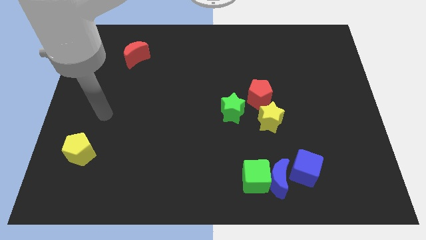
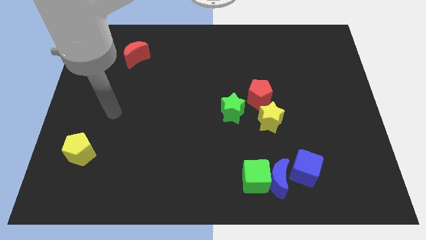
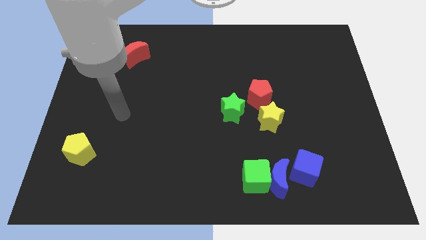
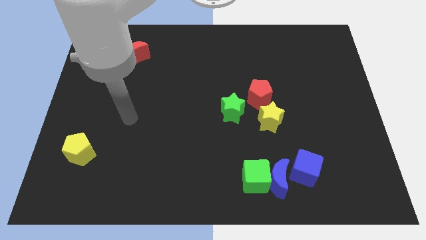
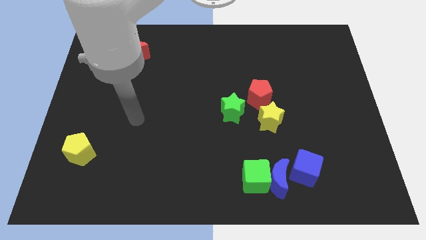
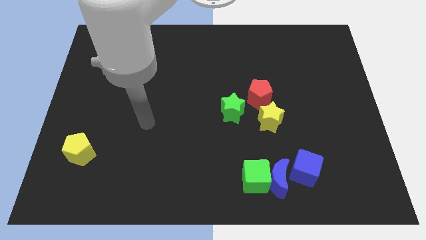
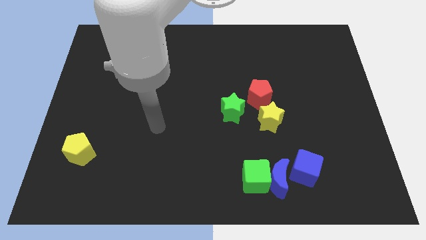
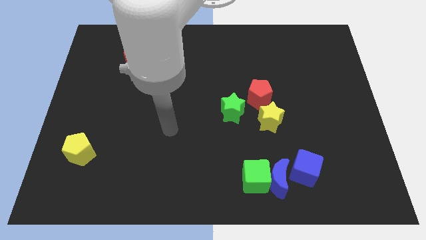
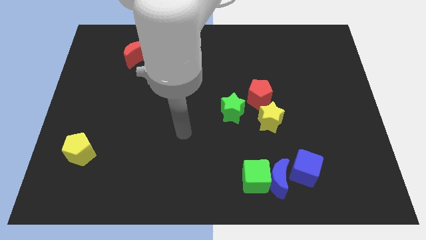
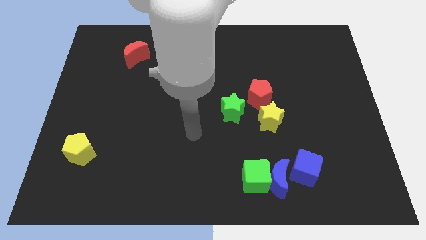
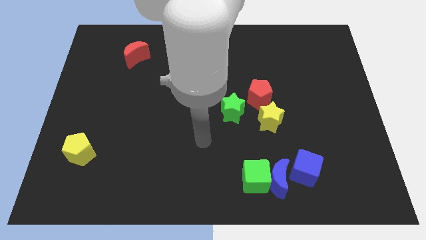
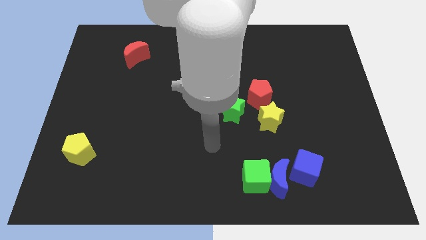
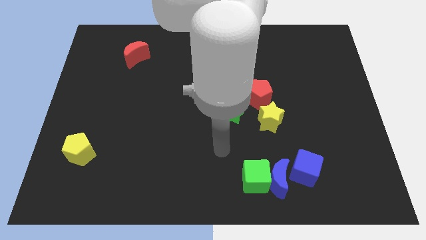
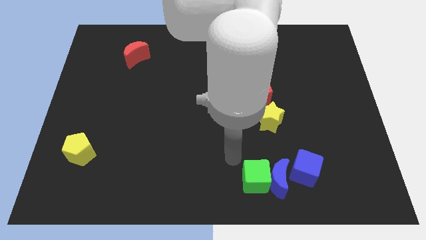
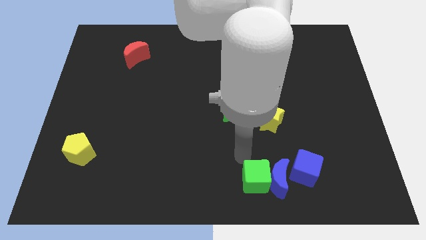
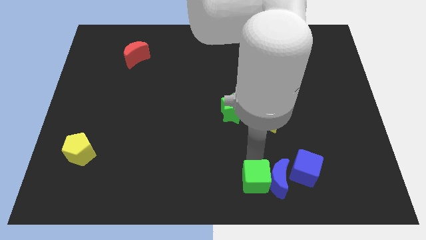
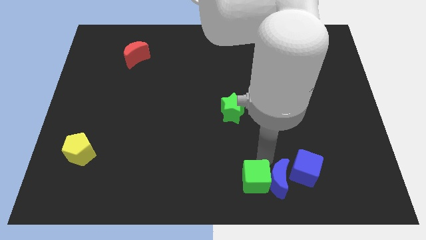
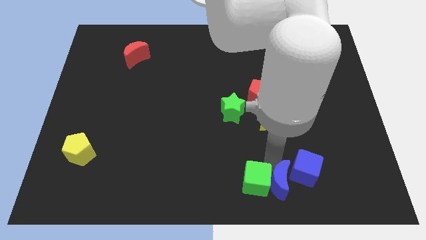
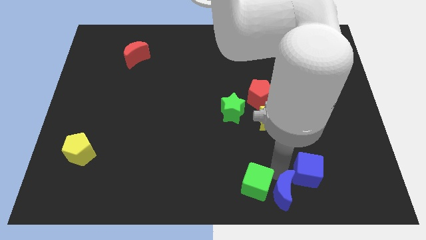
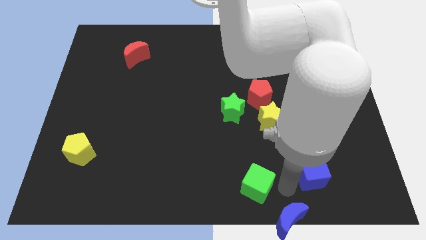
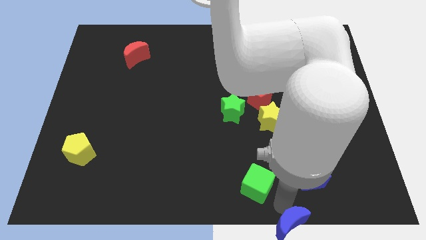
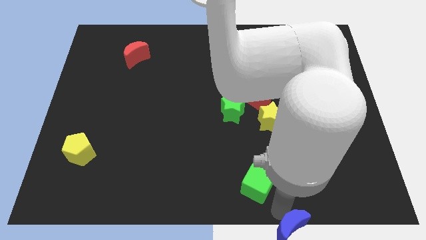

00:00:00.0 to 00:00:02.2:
separate the green cube from the blue moon

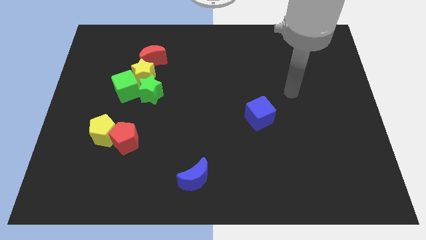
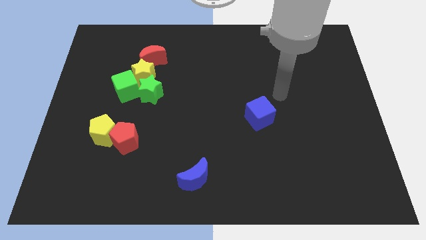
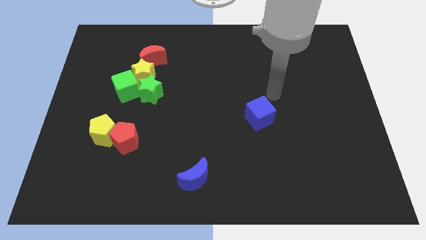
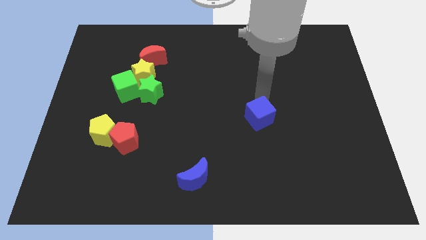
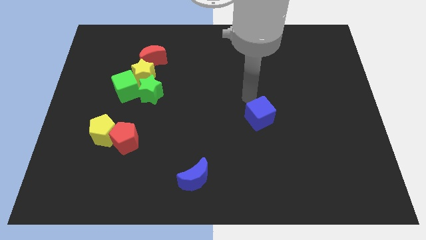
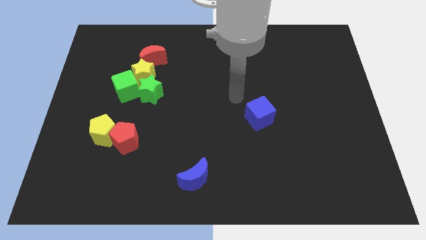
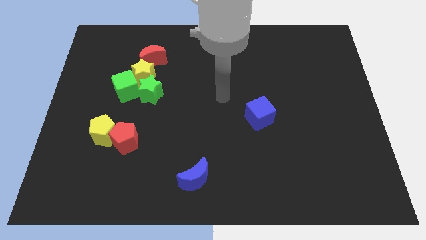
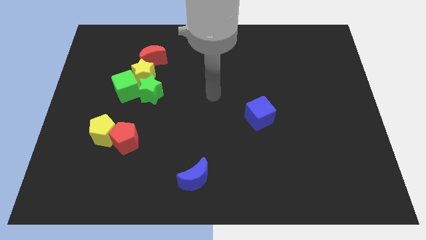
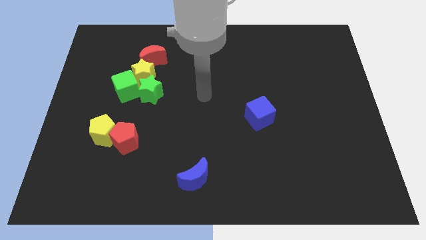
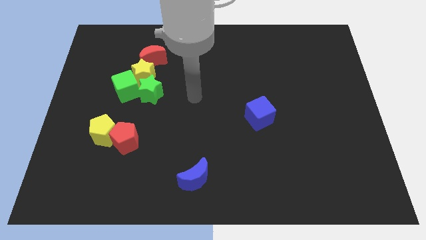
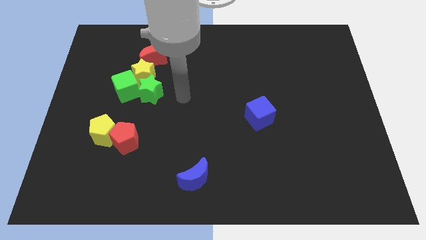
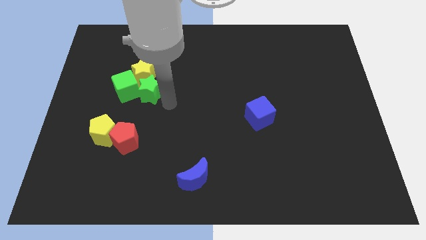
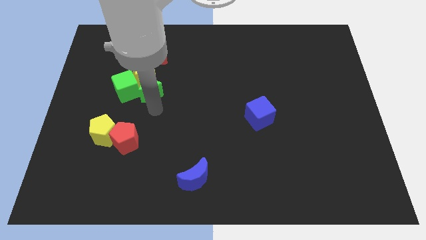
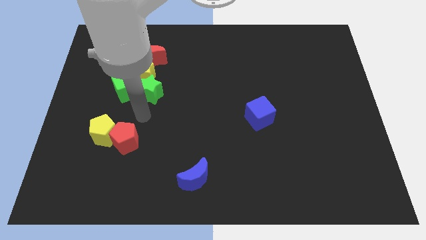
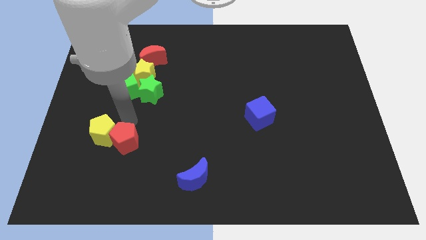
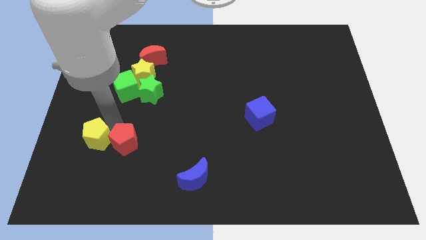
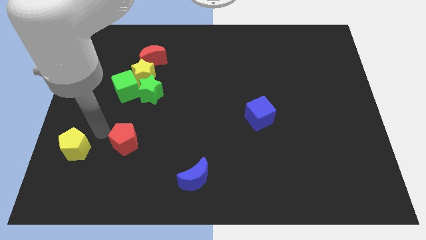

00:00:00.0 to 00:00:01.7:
pull the red pentagon apart from the yellow pentagon

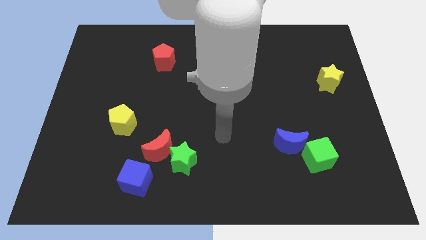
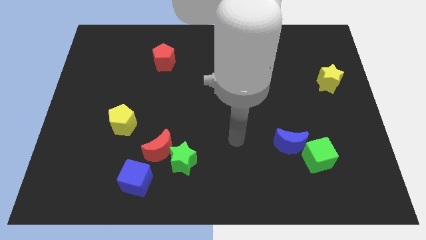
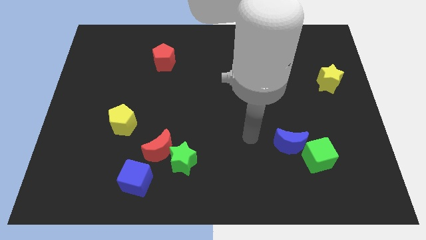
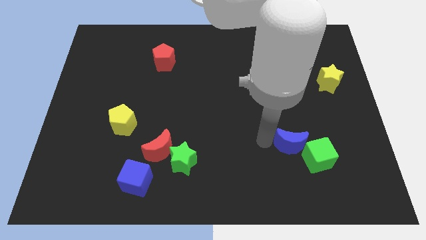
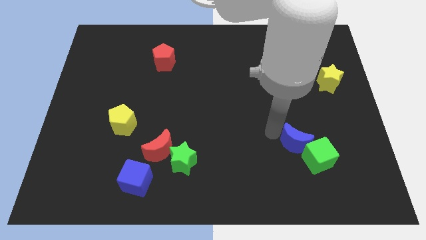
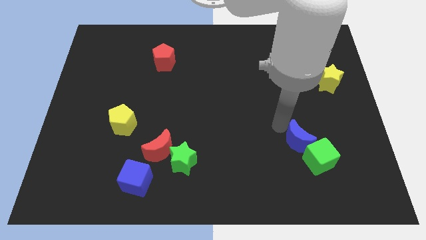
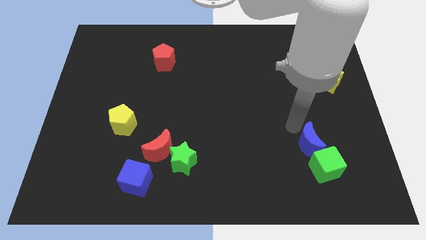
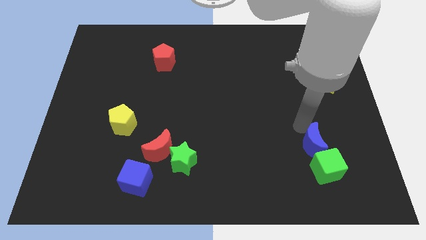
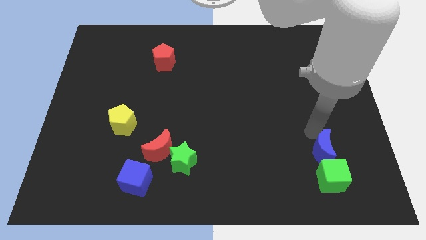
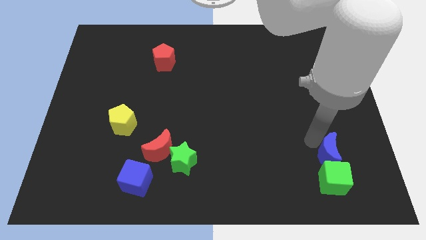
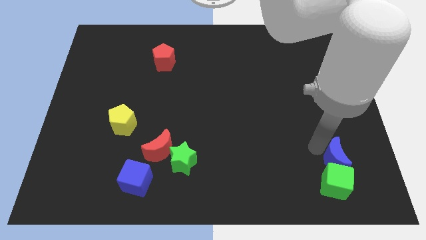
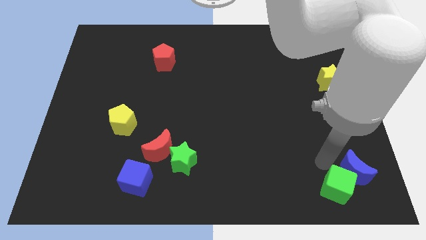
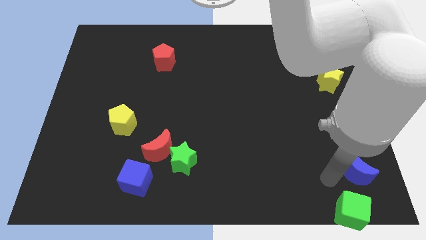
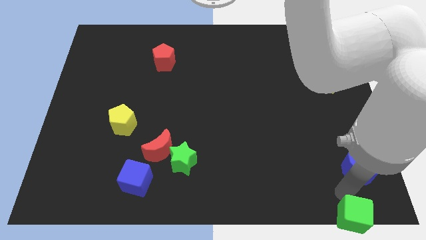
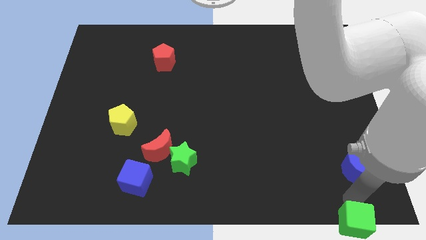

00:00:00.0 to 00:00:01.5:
move the blue moon away from the green cube

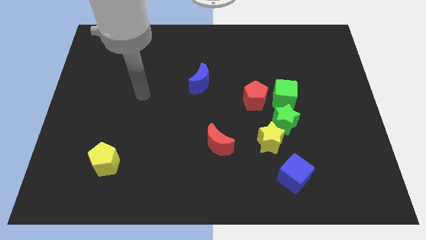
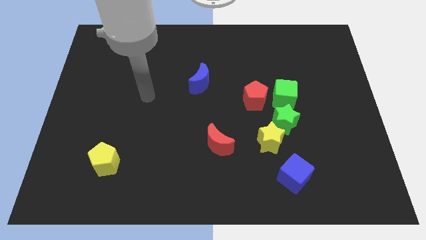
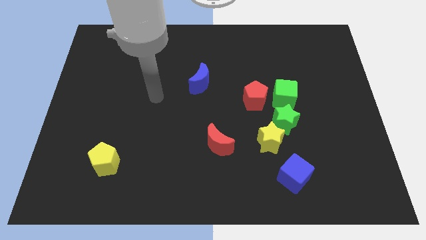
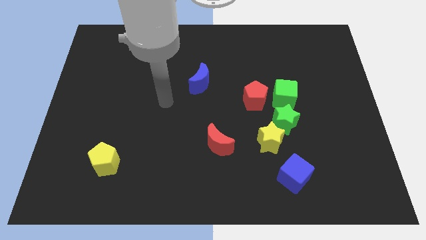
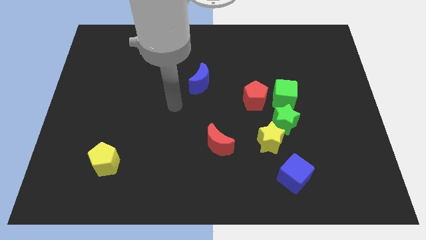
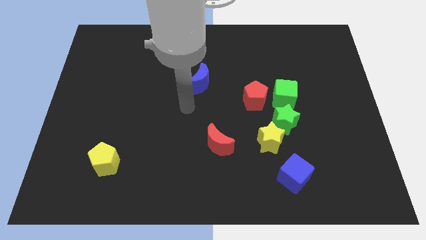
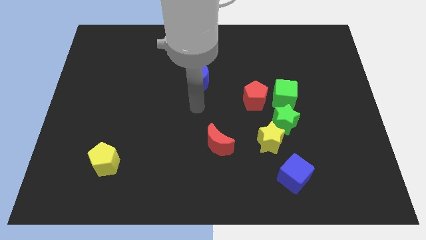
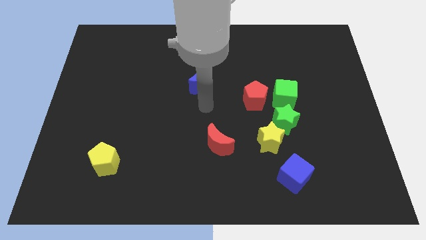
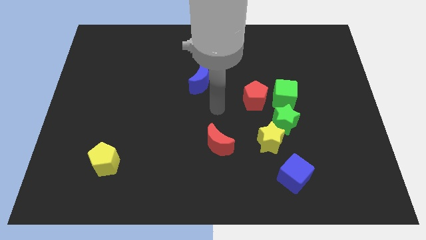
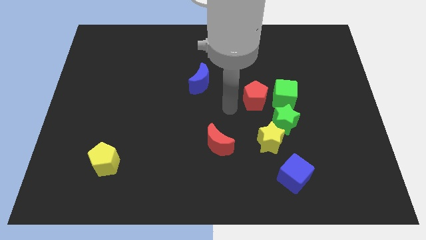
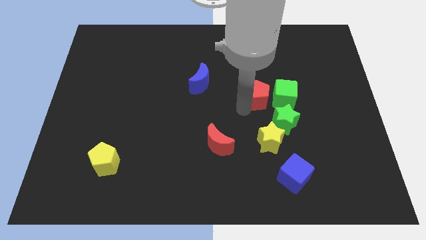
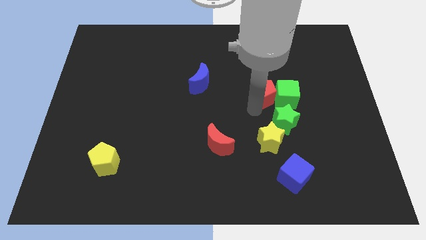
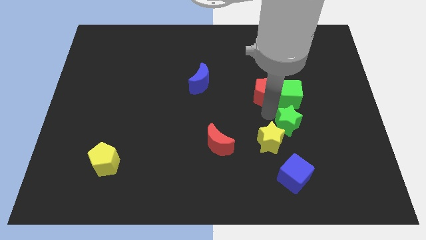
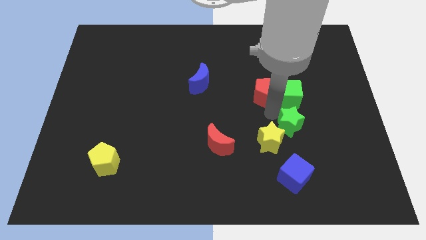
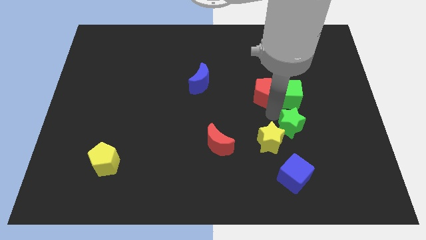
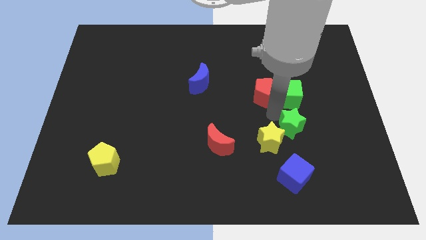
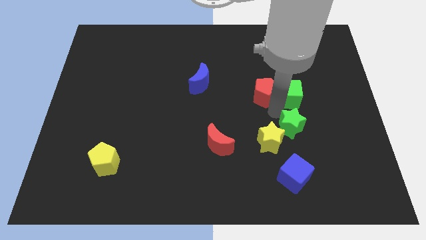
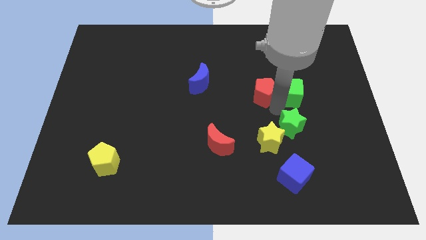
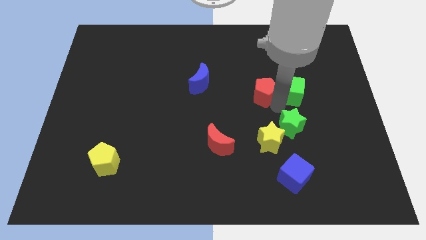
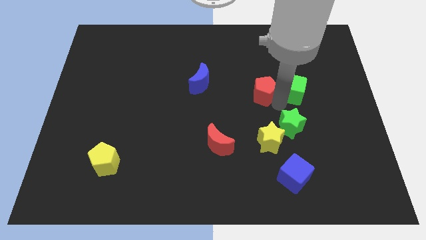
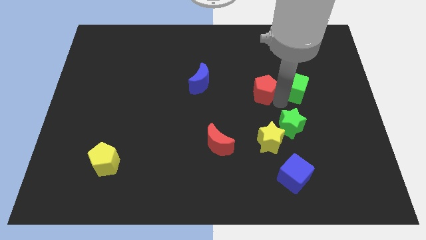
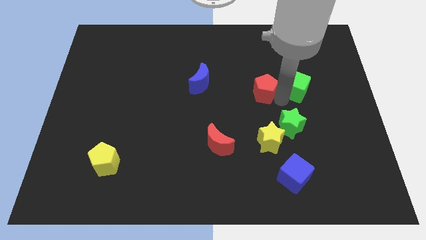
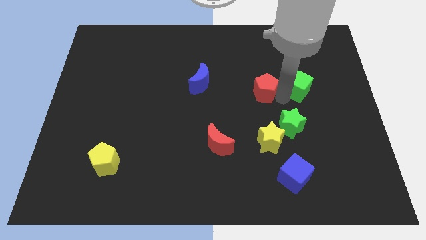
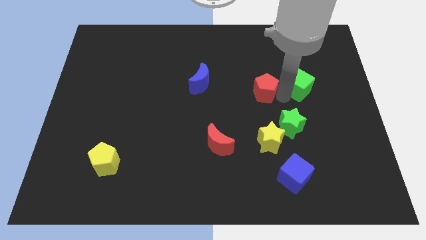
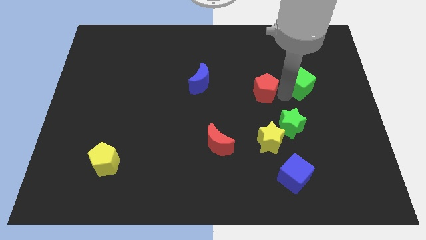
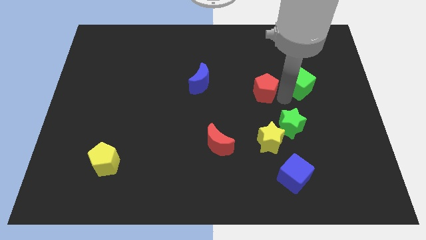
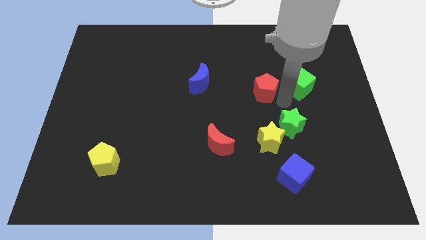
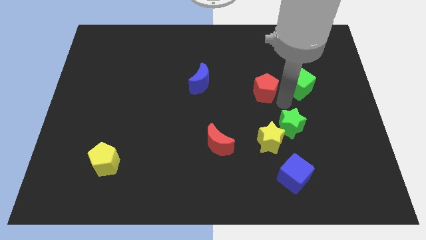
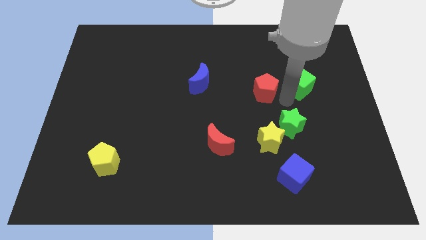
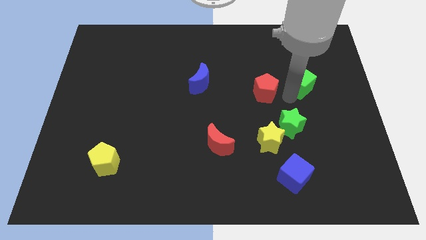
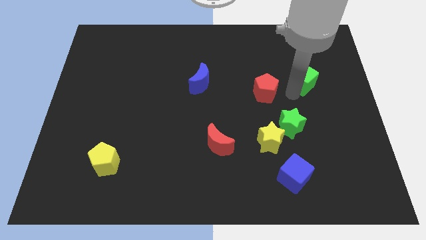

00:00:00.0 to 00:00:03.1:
move the green cube away from the red pentagon and green star

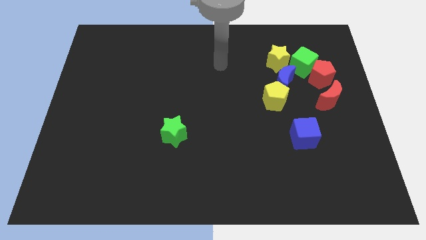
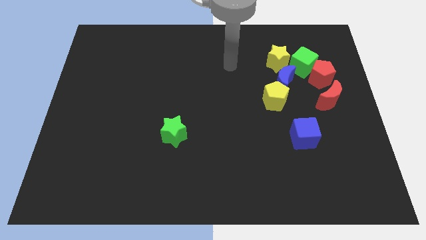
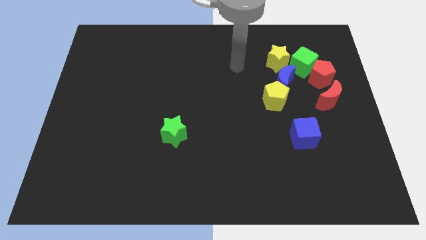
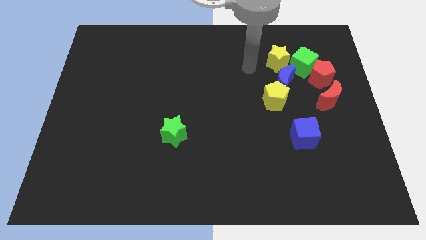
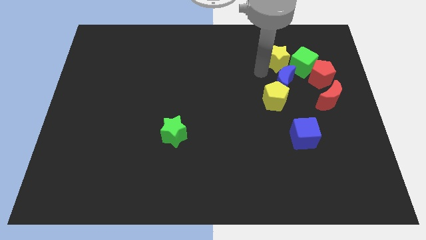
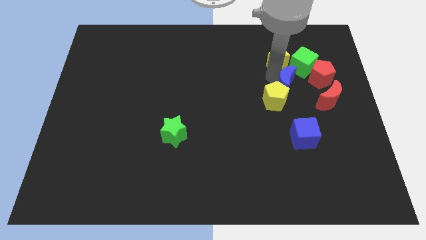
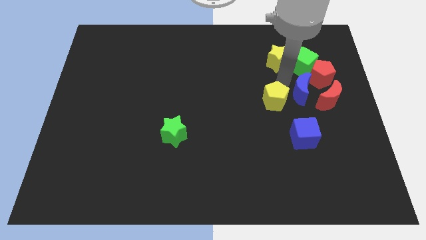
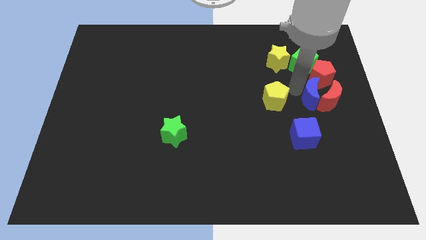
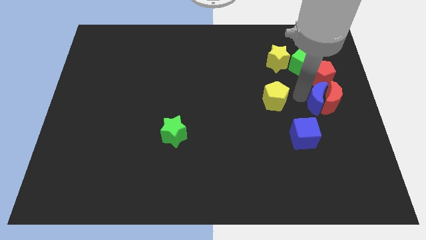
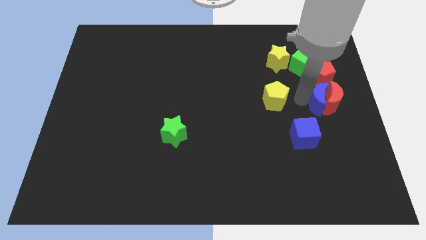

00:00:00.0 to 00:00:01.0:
pull the yellow pentagon apart from the blue moon
